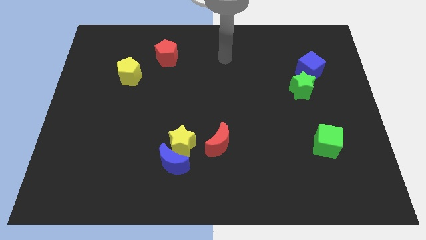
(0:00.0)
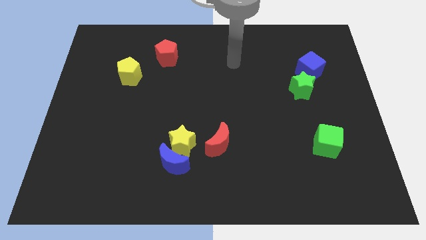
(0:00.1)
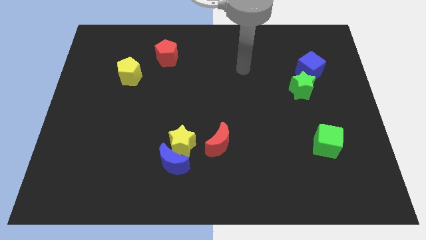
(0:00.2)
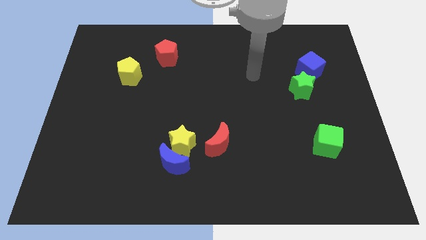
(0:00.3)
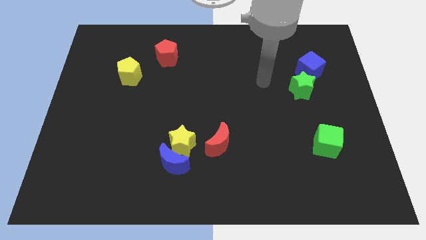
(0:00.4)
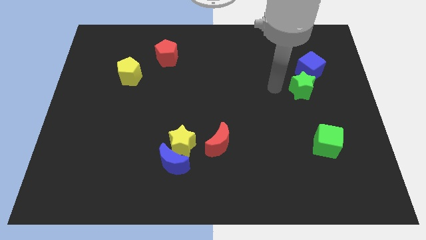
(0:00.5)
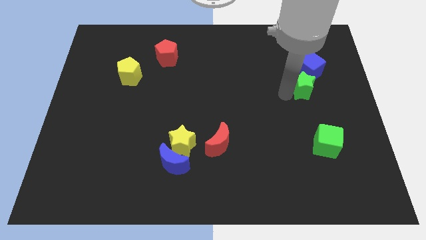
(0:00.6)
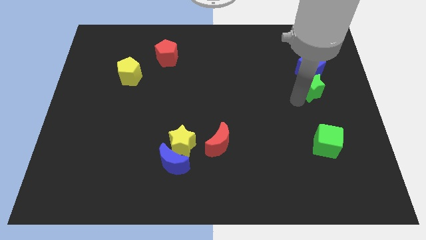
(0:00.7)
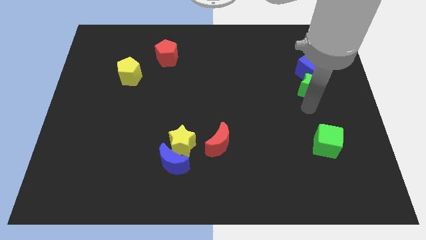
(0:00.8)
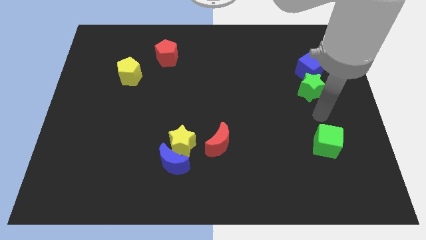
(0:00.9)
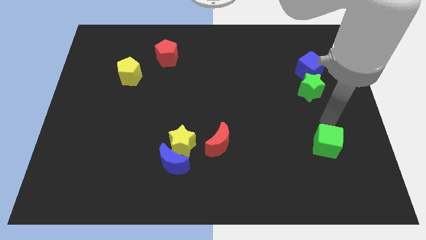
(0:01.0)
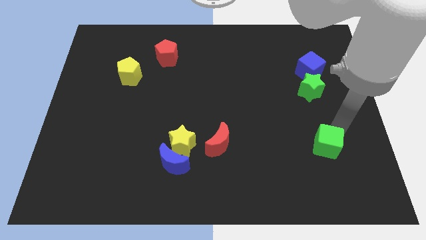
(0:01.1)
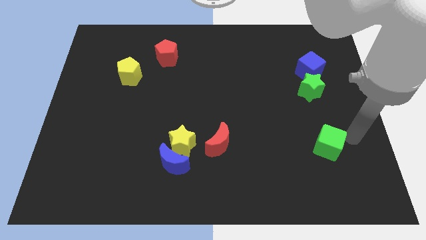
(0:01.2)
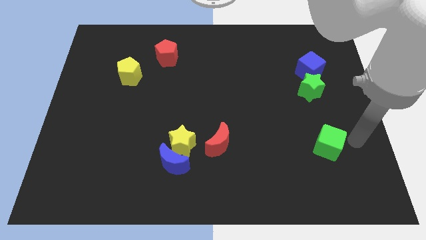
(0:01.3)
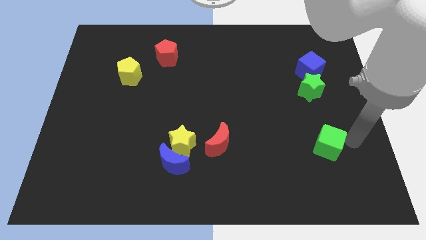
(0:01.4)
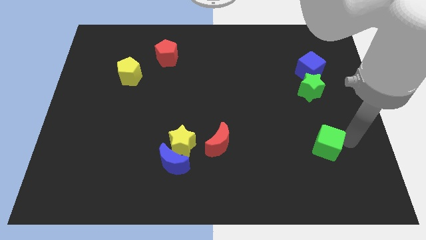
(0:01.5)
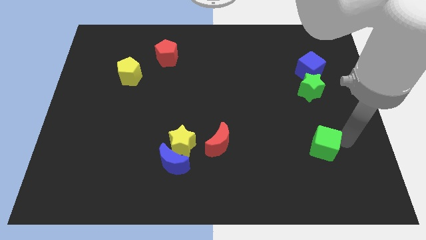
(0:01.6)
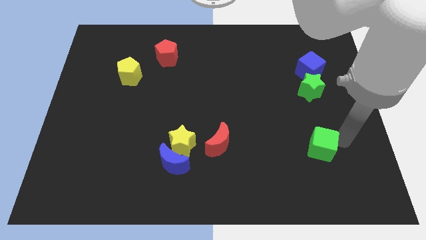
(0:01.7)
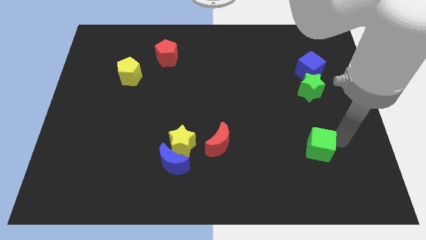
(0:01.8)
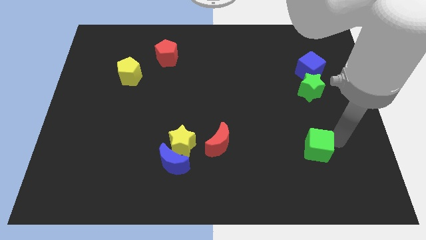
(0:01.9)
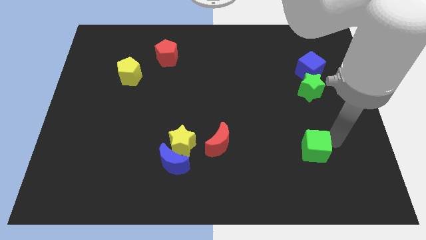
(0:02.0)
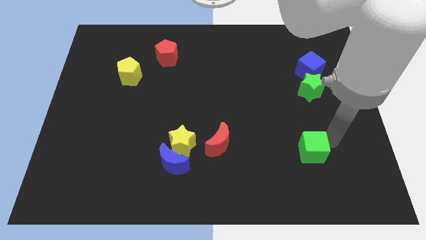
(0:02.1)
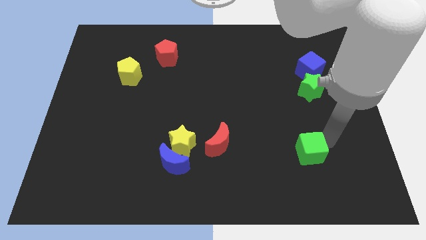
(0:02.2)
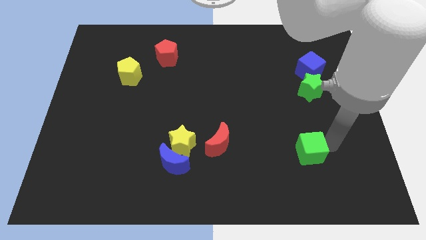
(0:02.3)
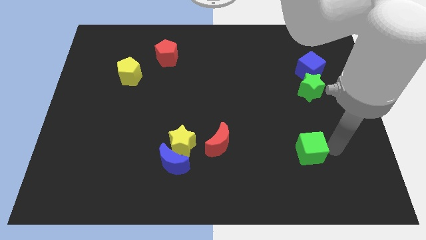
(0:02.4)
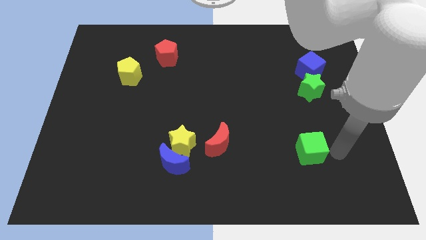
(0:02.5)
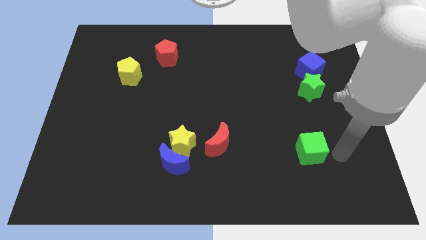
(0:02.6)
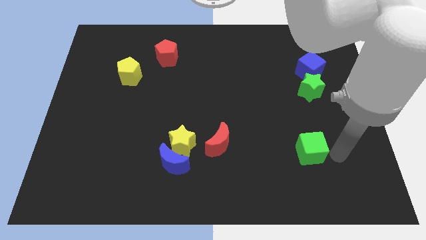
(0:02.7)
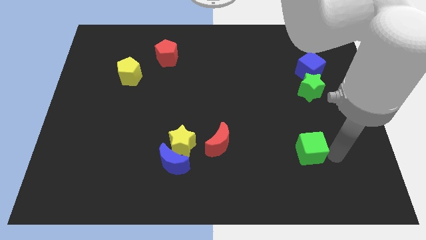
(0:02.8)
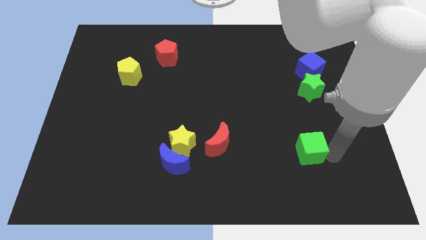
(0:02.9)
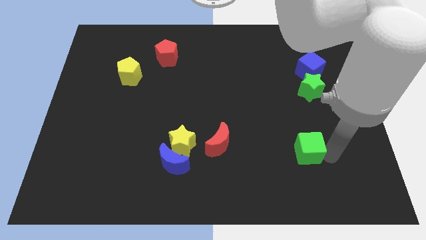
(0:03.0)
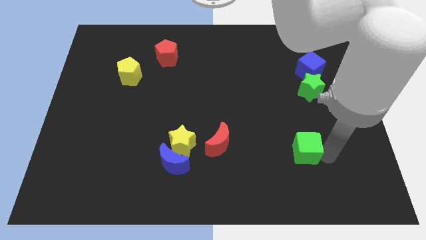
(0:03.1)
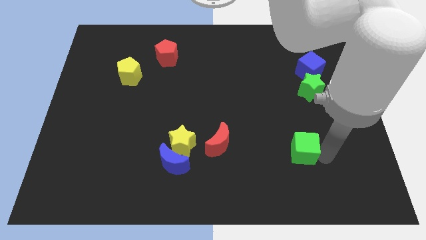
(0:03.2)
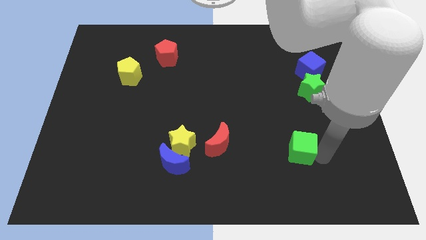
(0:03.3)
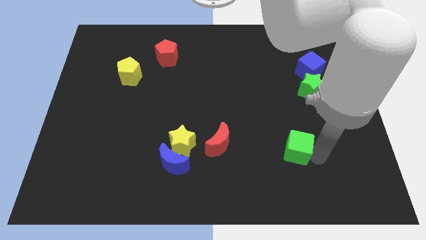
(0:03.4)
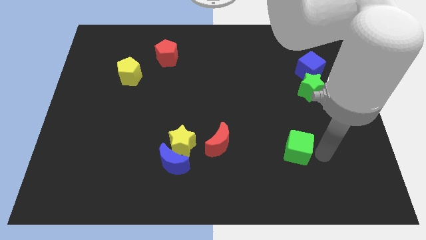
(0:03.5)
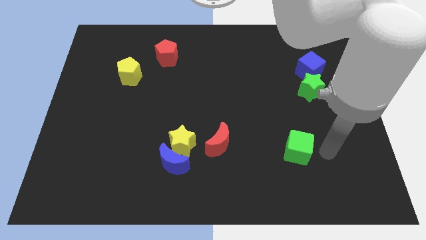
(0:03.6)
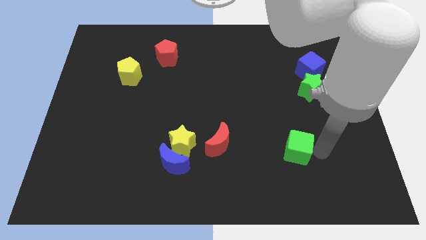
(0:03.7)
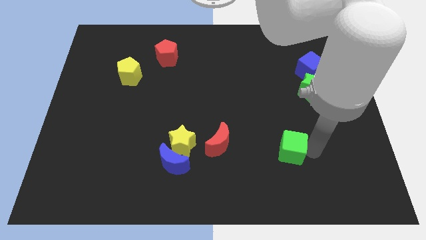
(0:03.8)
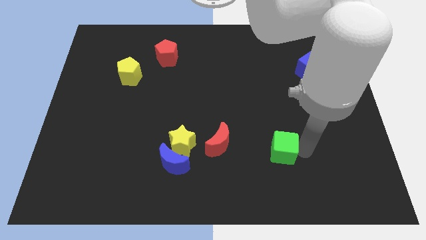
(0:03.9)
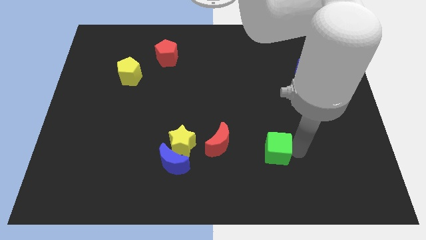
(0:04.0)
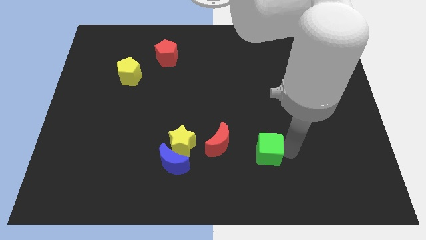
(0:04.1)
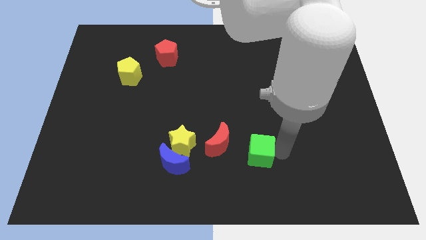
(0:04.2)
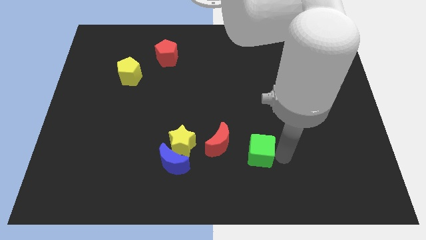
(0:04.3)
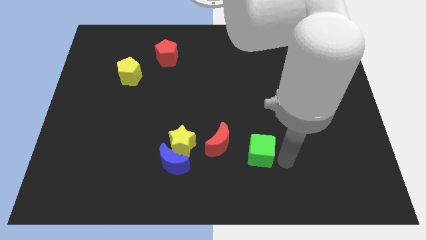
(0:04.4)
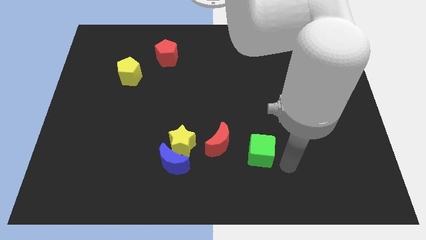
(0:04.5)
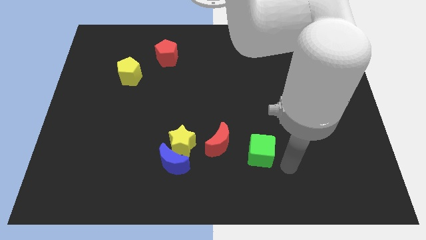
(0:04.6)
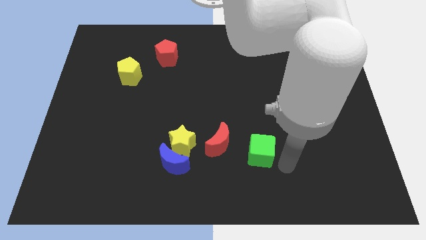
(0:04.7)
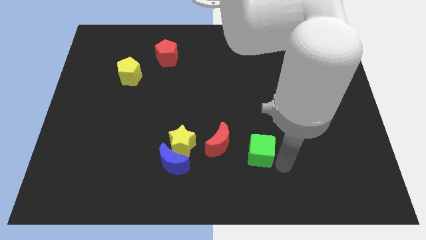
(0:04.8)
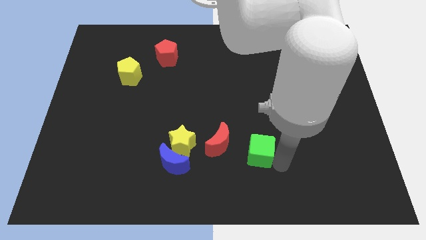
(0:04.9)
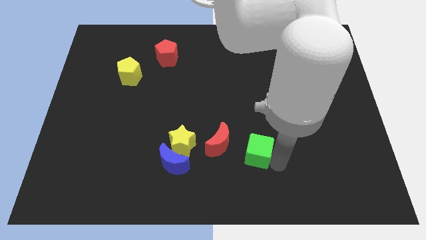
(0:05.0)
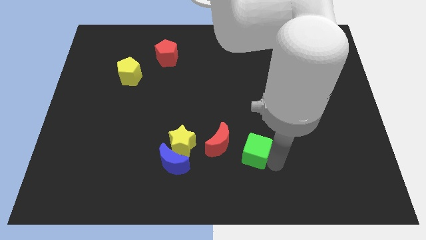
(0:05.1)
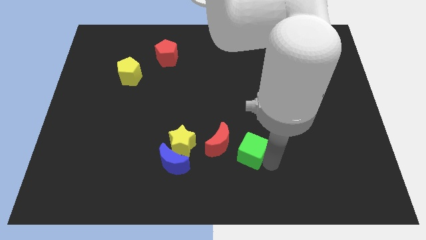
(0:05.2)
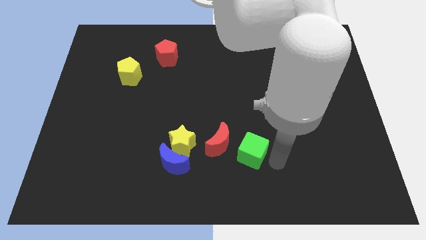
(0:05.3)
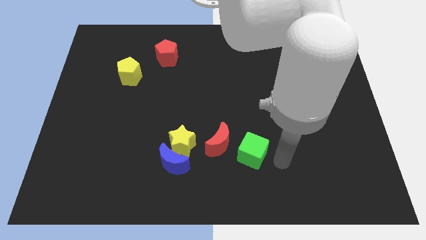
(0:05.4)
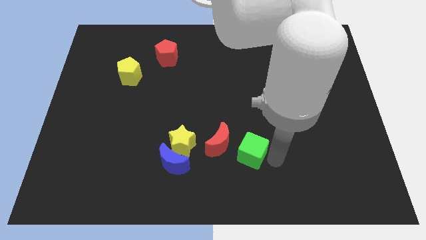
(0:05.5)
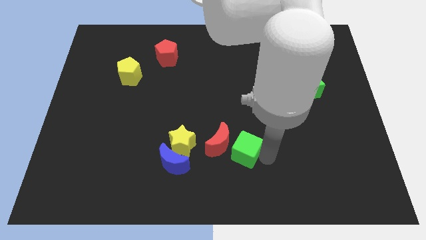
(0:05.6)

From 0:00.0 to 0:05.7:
push the green cube close to the red moon

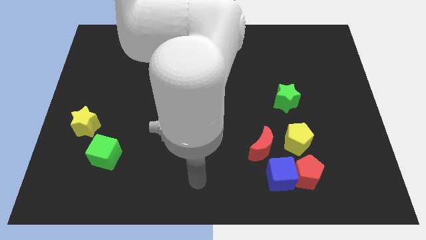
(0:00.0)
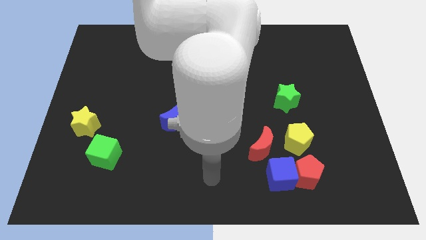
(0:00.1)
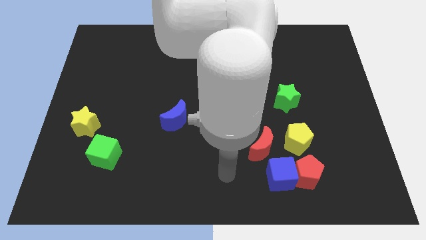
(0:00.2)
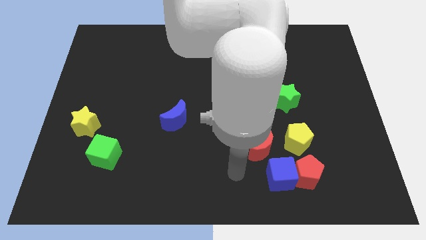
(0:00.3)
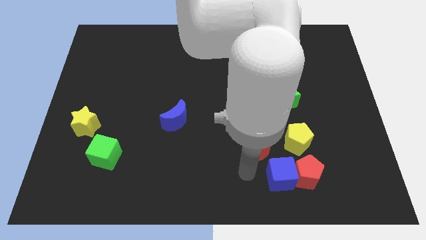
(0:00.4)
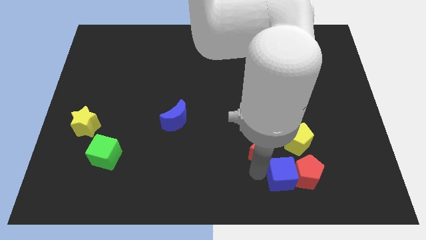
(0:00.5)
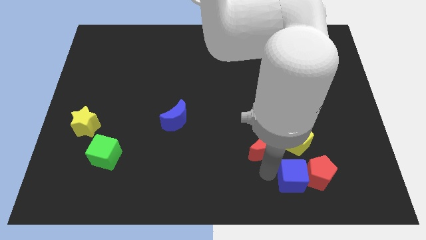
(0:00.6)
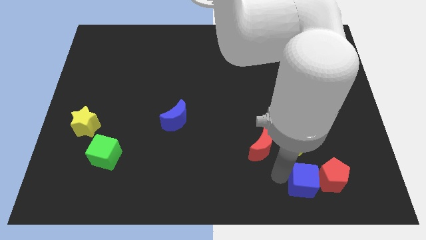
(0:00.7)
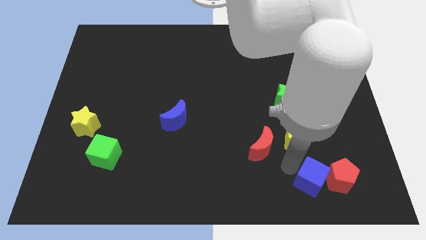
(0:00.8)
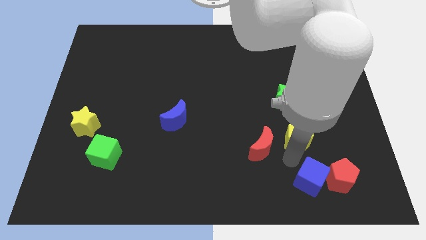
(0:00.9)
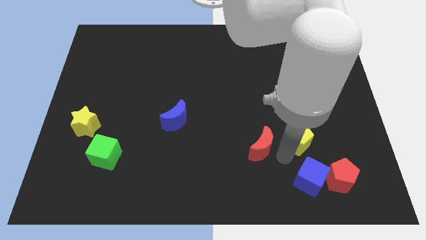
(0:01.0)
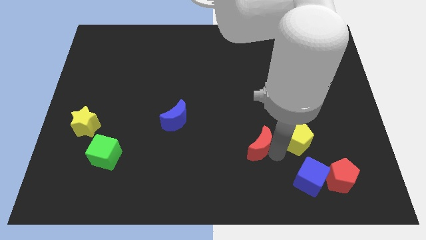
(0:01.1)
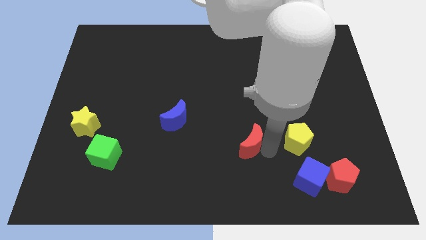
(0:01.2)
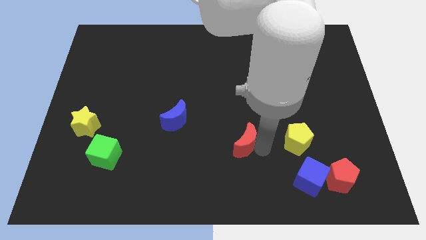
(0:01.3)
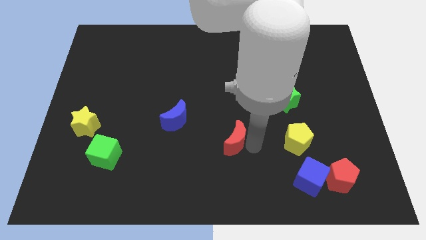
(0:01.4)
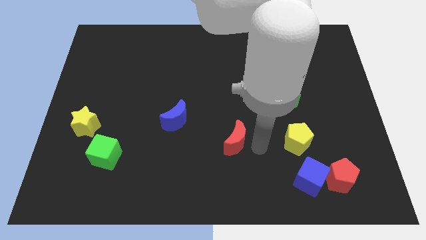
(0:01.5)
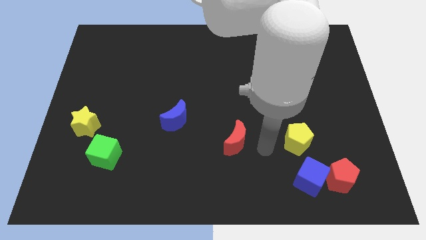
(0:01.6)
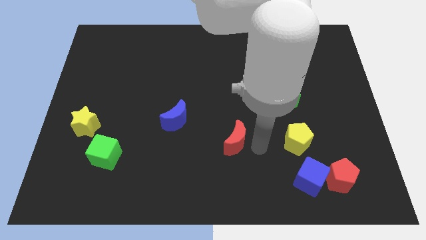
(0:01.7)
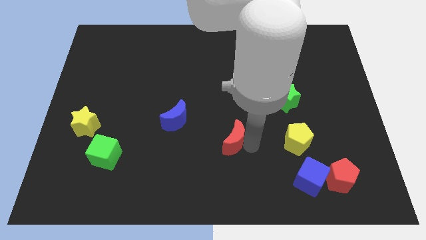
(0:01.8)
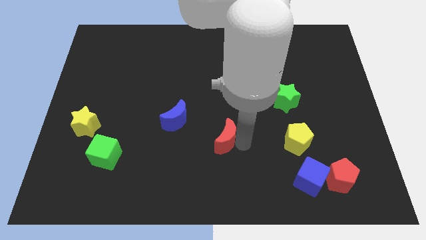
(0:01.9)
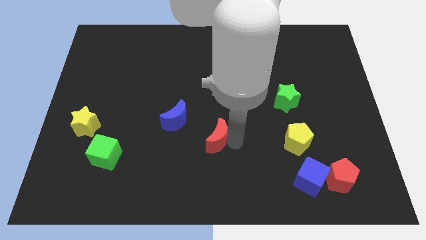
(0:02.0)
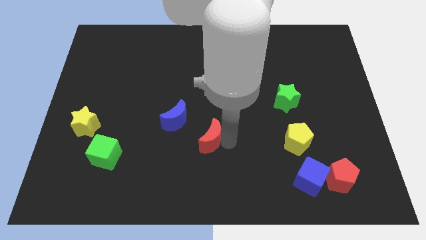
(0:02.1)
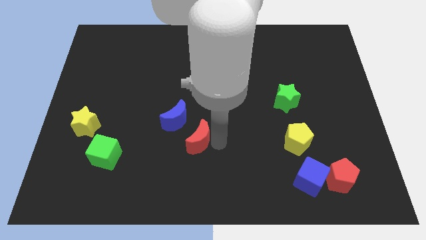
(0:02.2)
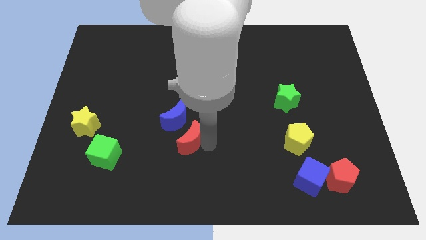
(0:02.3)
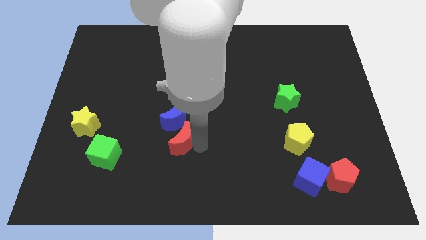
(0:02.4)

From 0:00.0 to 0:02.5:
slide the red moon close to the blue moon
